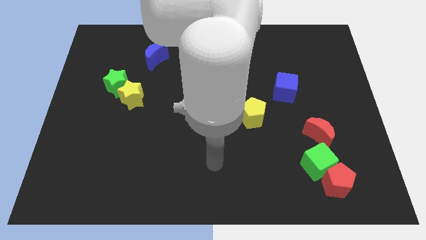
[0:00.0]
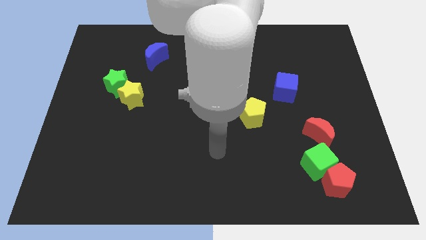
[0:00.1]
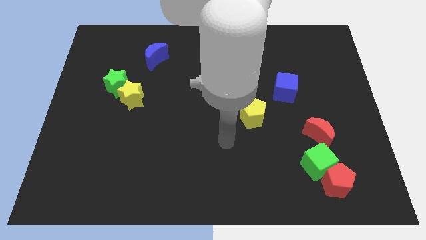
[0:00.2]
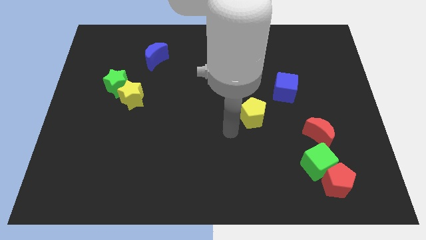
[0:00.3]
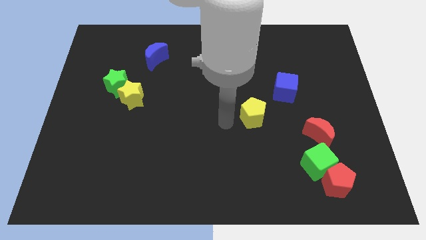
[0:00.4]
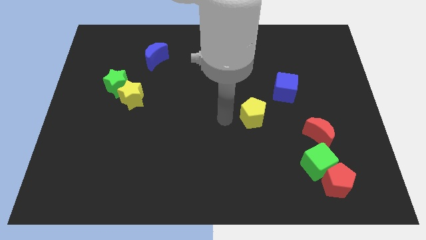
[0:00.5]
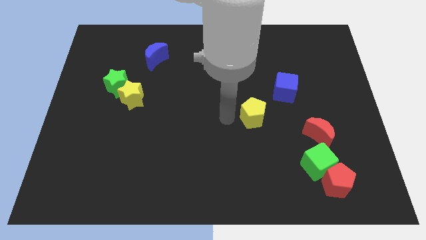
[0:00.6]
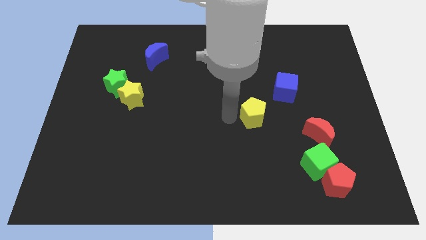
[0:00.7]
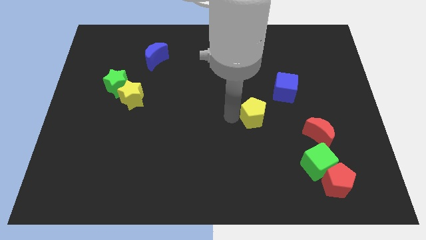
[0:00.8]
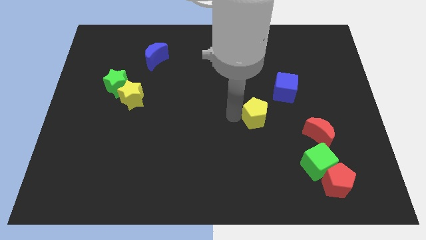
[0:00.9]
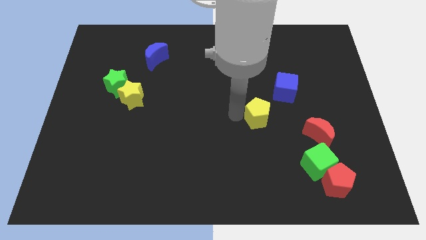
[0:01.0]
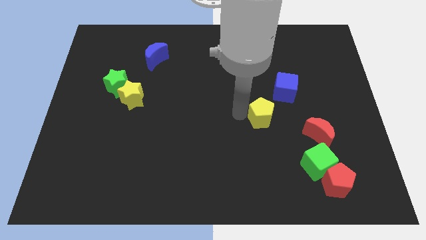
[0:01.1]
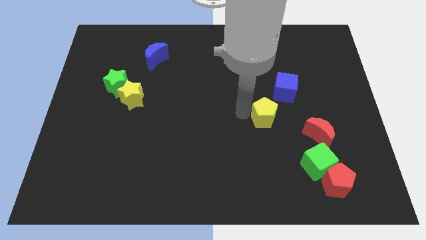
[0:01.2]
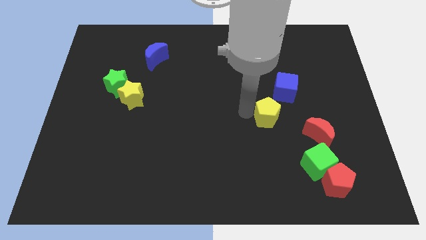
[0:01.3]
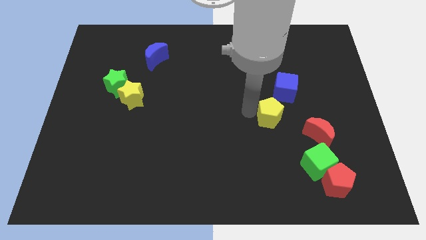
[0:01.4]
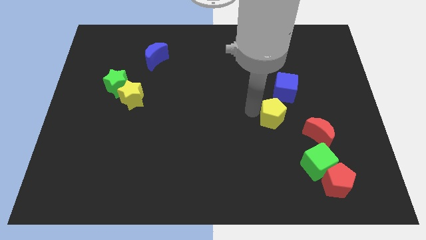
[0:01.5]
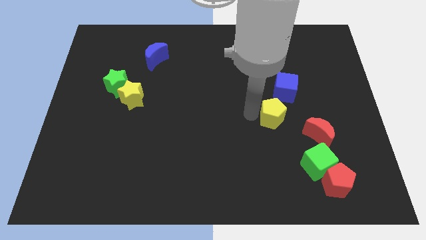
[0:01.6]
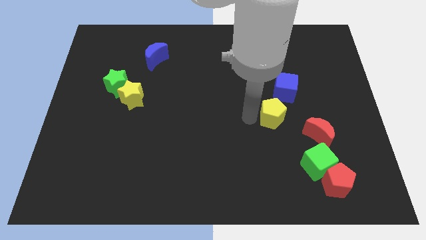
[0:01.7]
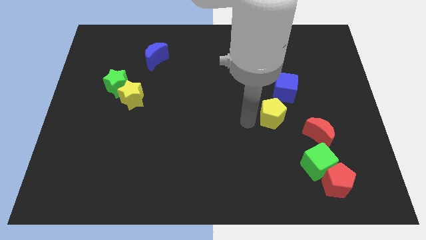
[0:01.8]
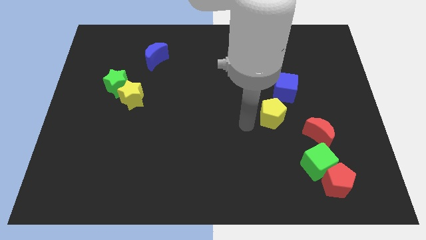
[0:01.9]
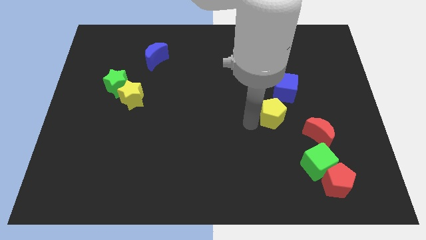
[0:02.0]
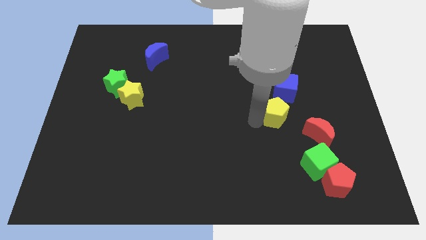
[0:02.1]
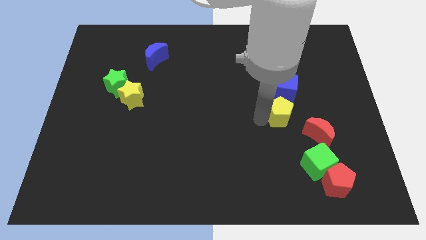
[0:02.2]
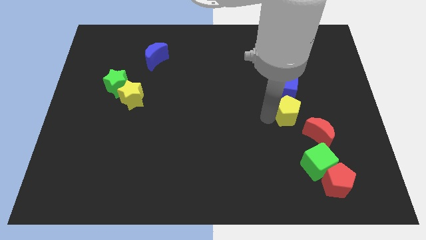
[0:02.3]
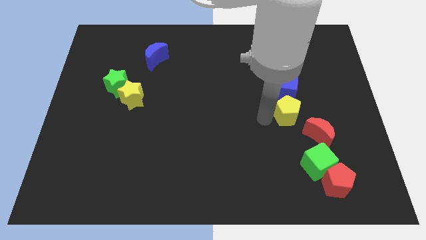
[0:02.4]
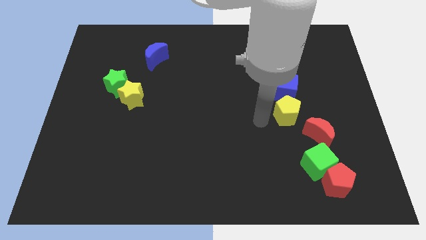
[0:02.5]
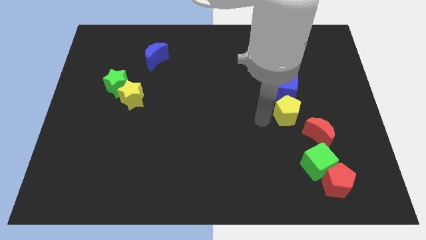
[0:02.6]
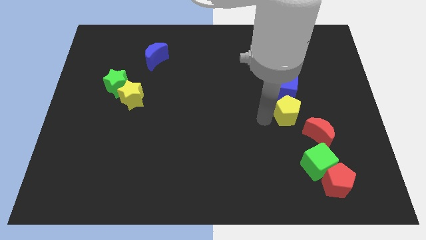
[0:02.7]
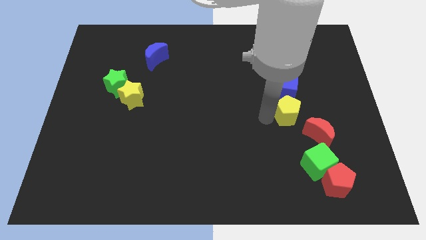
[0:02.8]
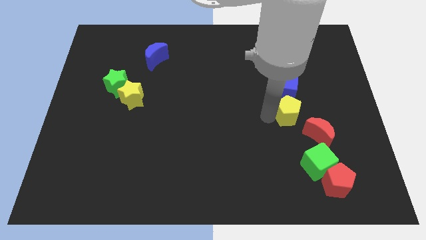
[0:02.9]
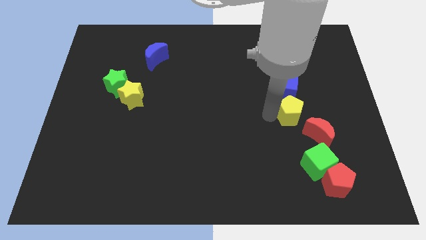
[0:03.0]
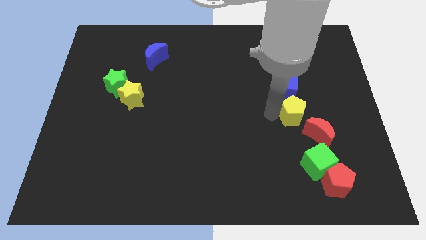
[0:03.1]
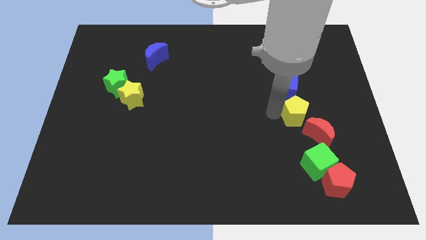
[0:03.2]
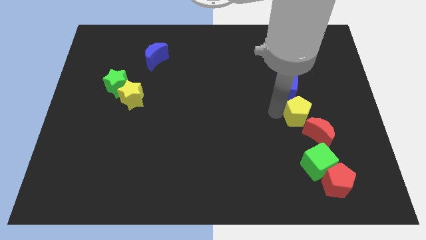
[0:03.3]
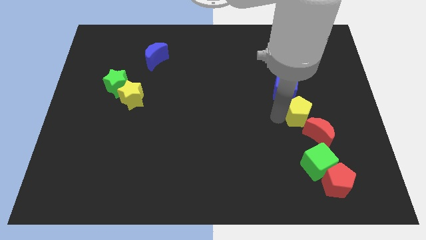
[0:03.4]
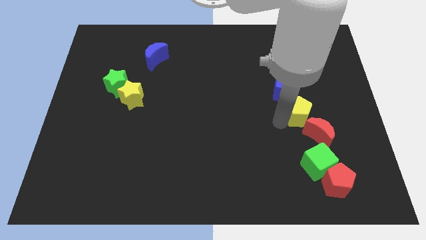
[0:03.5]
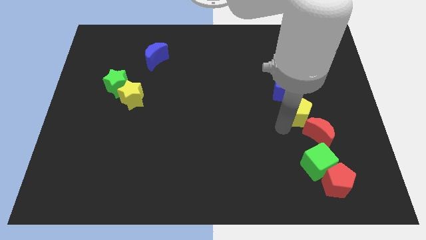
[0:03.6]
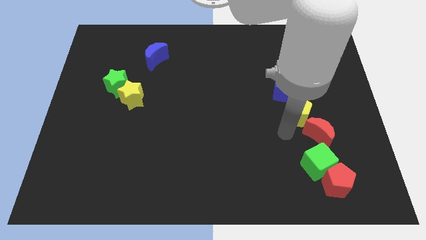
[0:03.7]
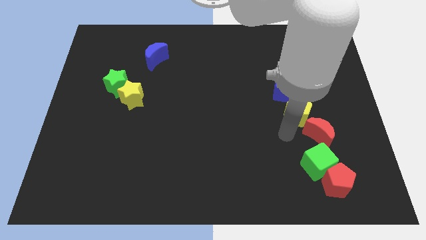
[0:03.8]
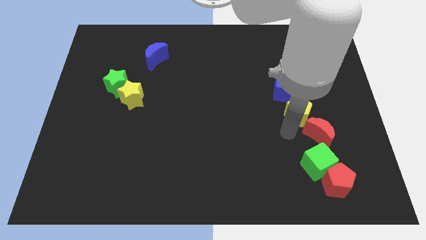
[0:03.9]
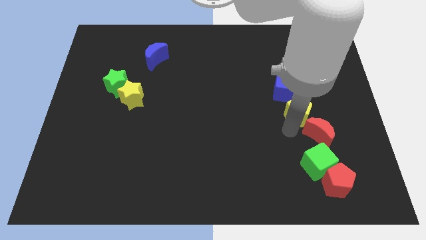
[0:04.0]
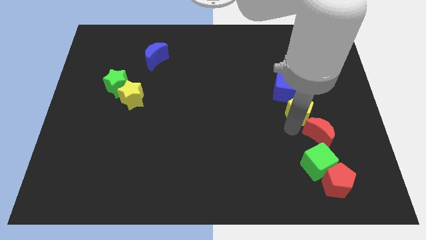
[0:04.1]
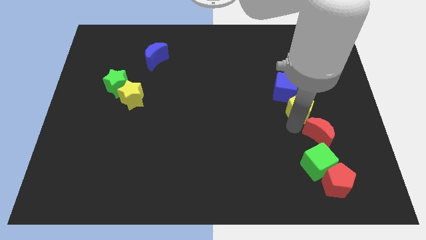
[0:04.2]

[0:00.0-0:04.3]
slide the yellow pentagon a little bit up and to the right

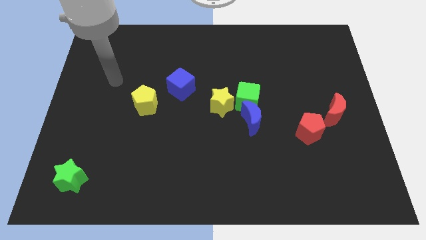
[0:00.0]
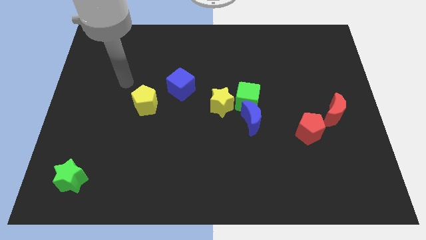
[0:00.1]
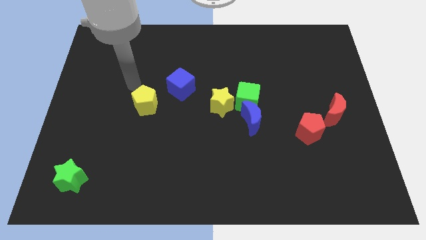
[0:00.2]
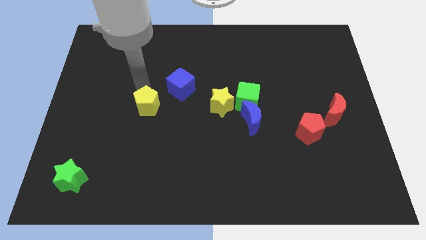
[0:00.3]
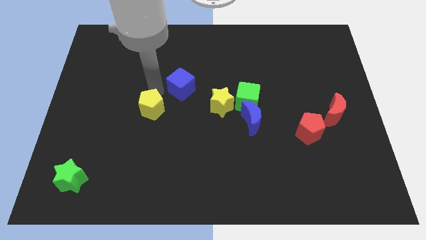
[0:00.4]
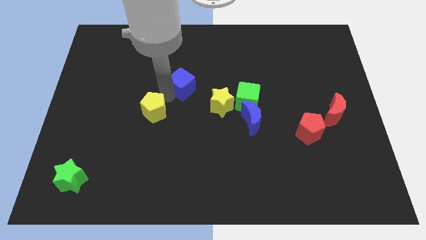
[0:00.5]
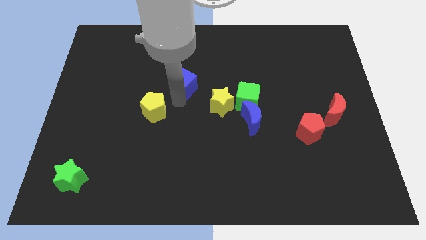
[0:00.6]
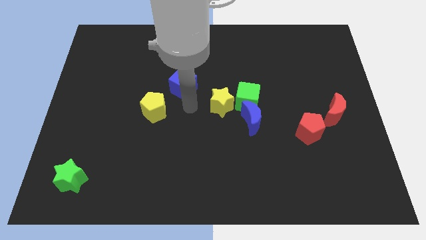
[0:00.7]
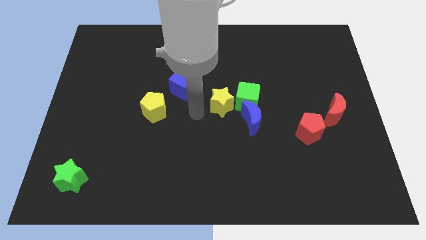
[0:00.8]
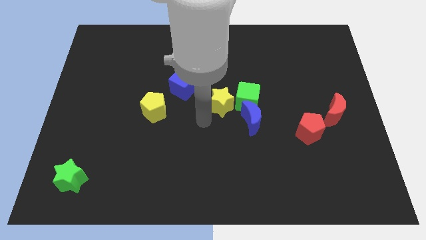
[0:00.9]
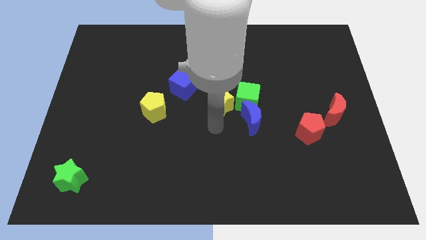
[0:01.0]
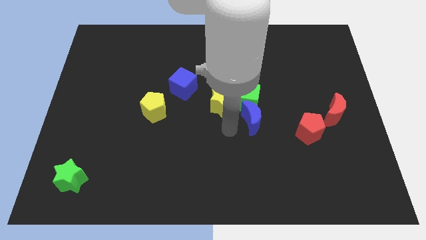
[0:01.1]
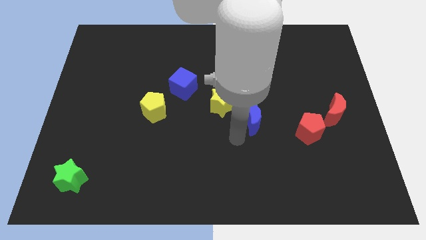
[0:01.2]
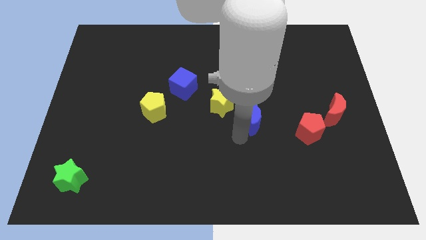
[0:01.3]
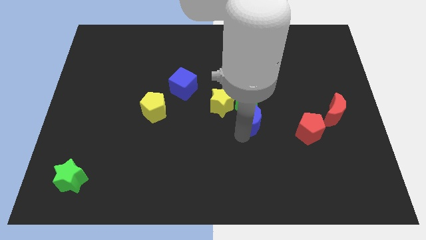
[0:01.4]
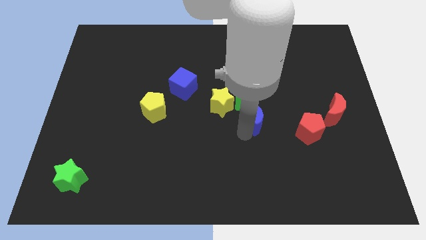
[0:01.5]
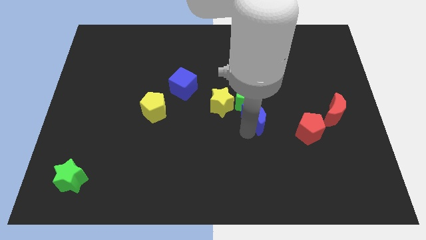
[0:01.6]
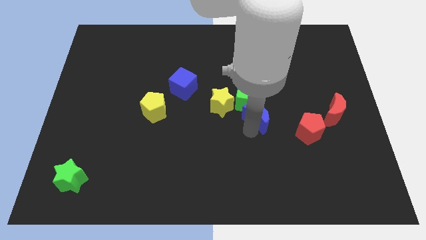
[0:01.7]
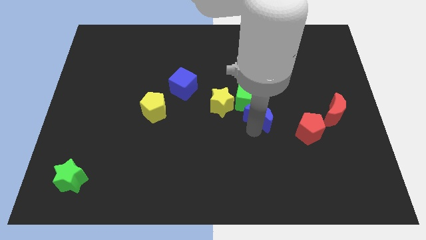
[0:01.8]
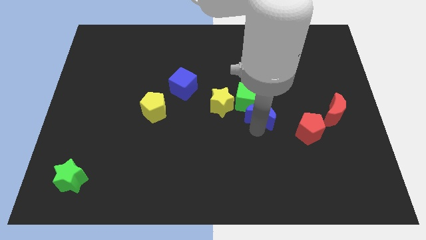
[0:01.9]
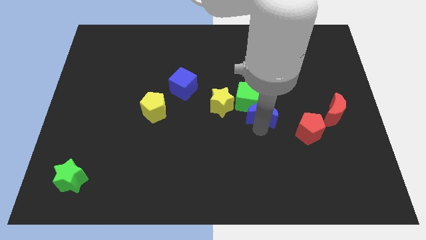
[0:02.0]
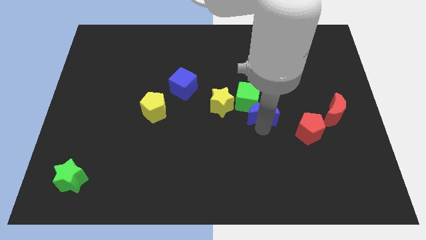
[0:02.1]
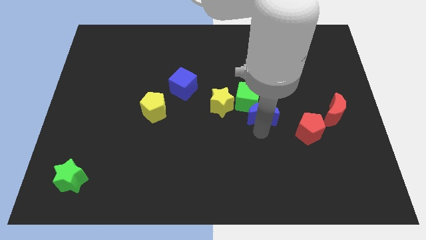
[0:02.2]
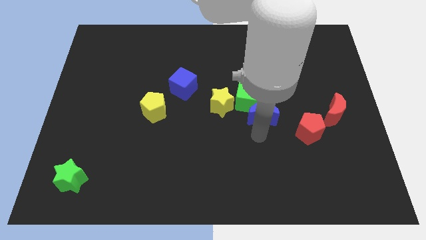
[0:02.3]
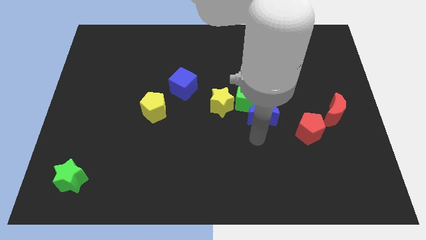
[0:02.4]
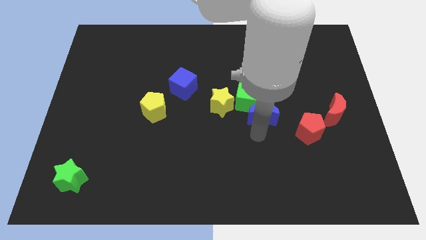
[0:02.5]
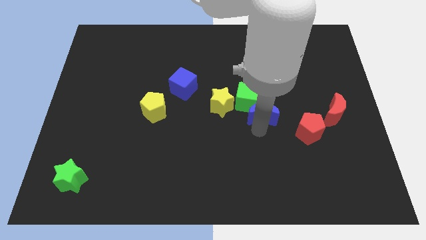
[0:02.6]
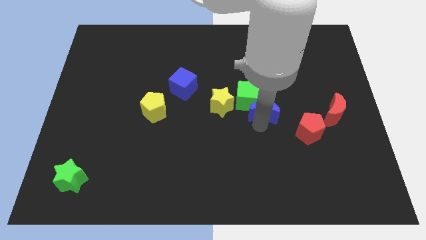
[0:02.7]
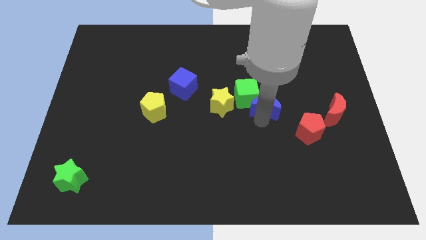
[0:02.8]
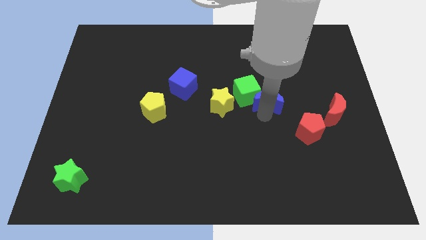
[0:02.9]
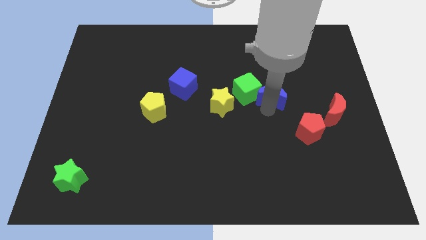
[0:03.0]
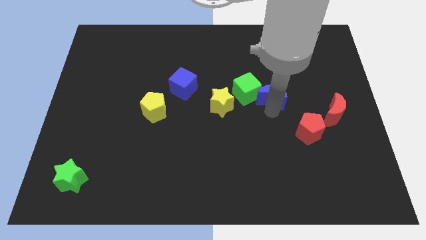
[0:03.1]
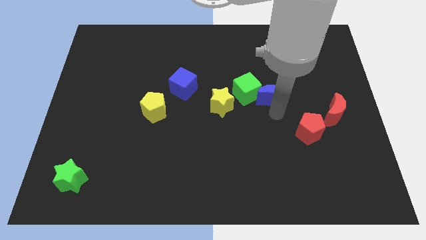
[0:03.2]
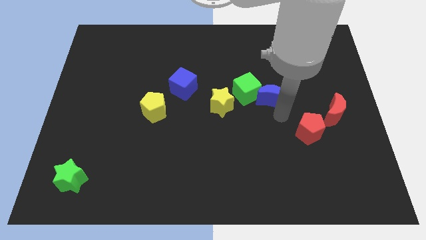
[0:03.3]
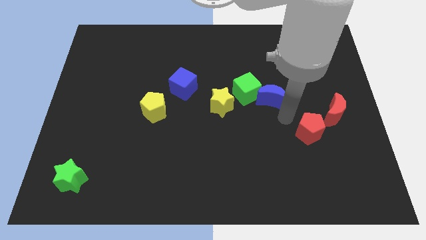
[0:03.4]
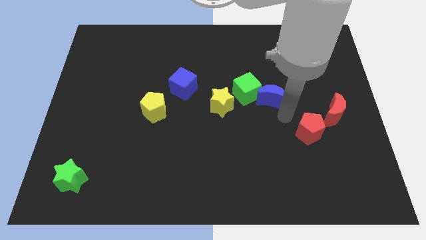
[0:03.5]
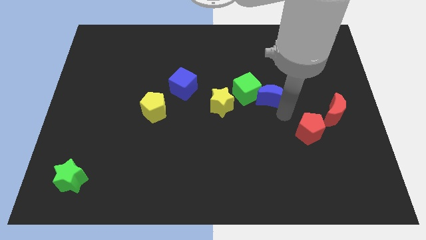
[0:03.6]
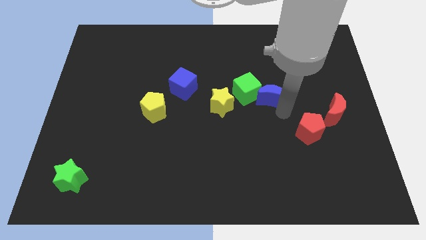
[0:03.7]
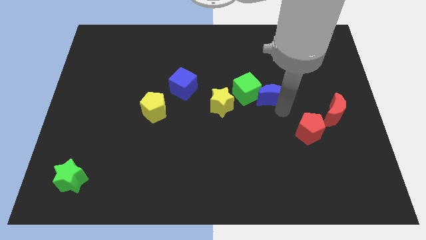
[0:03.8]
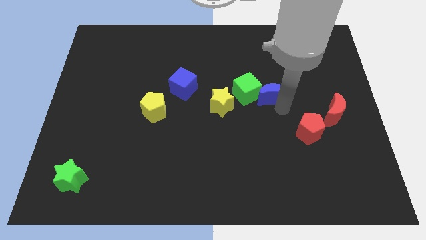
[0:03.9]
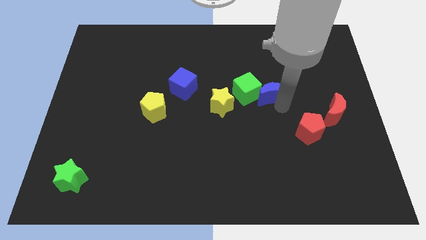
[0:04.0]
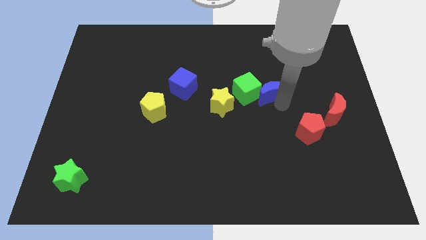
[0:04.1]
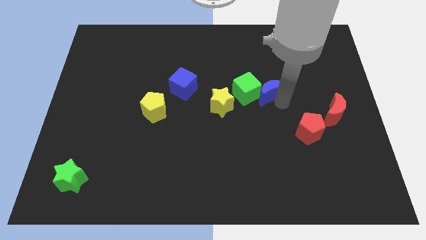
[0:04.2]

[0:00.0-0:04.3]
slightly move the blue moon upwards
